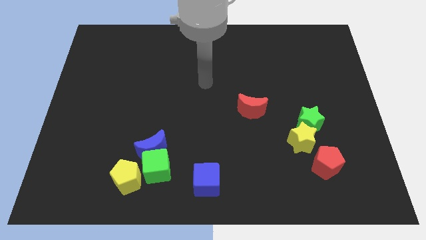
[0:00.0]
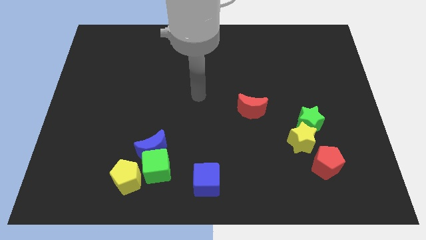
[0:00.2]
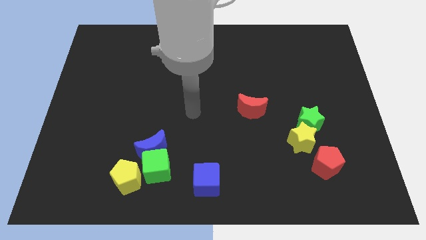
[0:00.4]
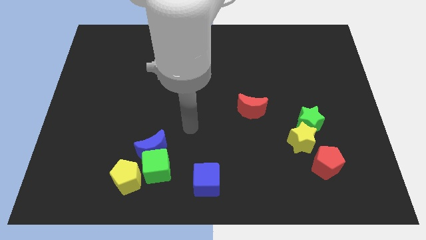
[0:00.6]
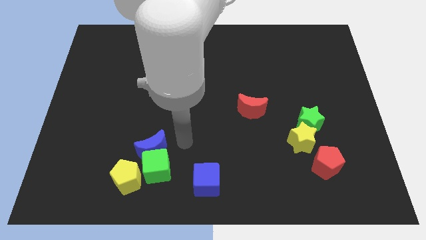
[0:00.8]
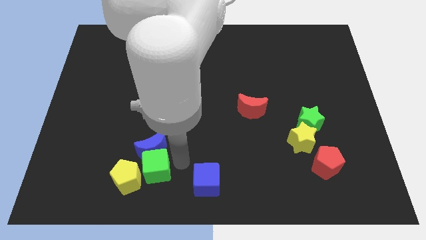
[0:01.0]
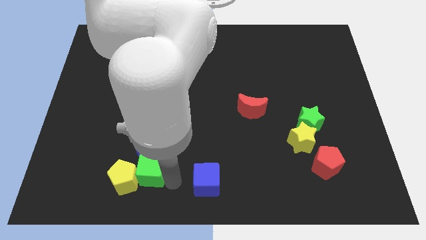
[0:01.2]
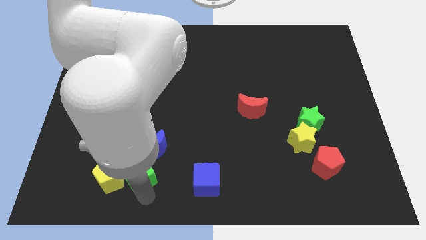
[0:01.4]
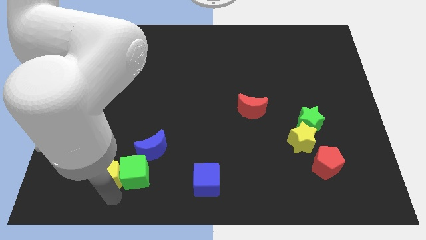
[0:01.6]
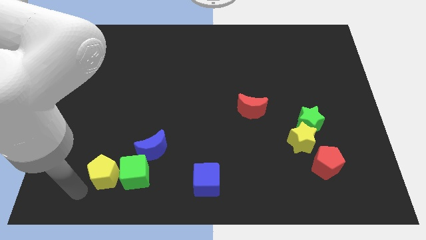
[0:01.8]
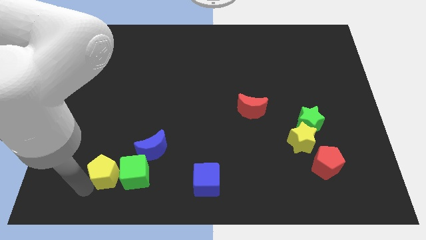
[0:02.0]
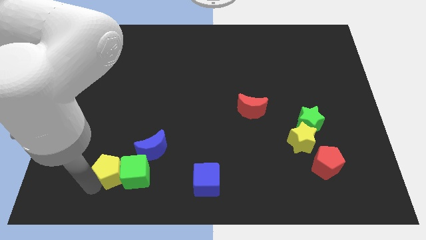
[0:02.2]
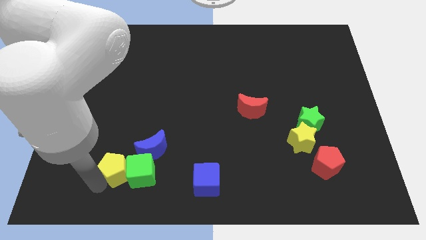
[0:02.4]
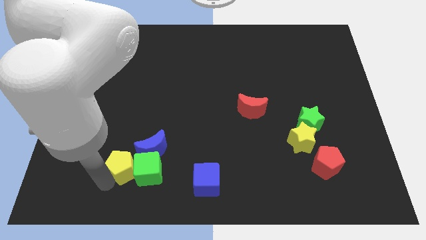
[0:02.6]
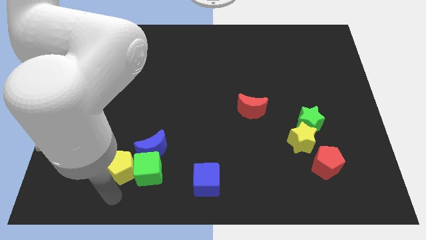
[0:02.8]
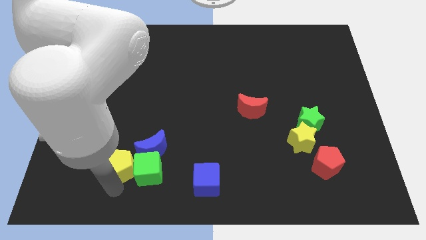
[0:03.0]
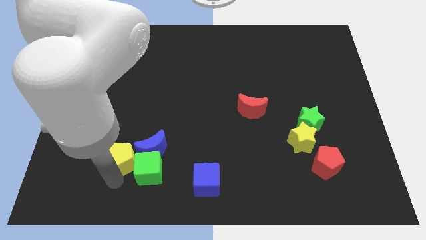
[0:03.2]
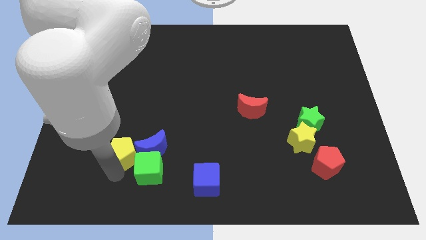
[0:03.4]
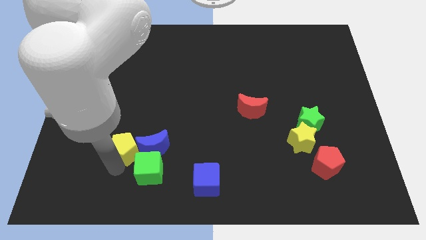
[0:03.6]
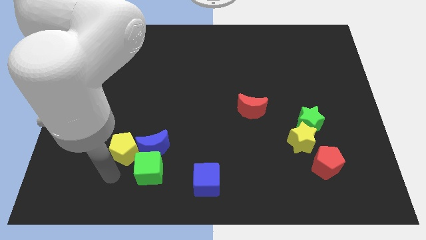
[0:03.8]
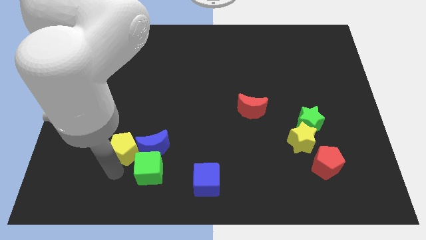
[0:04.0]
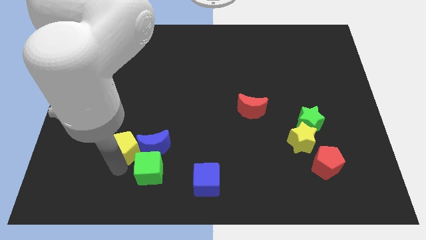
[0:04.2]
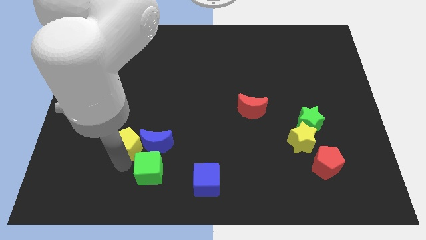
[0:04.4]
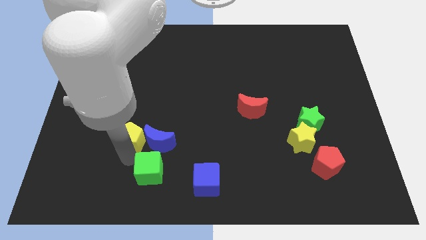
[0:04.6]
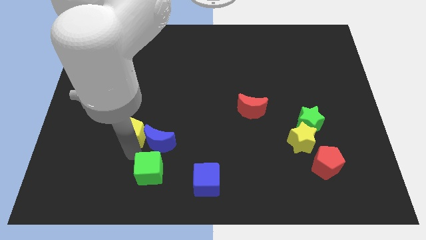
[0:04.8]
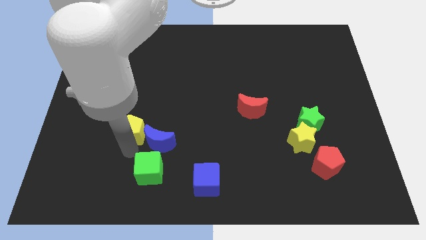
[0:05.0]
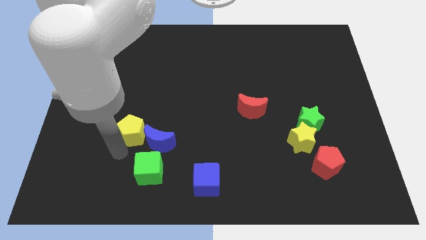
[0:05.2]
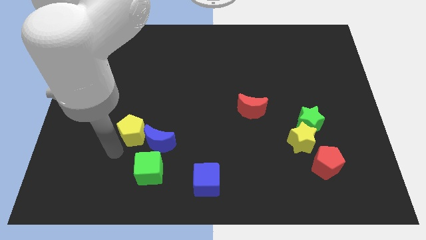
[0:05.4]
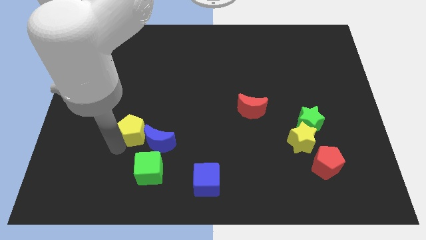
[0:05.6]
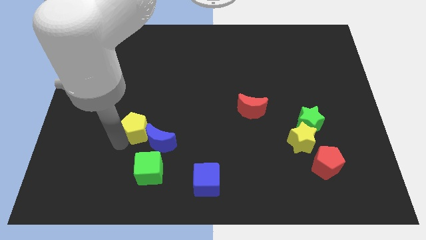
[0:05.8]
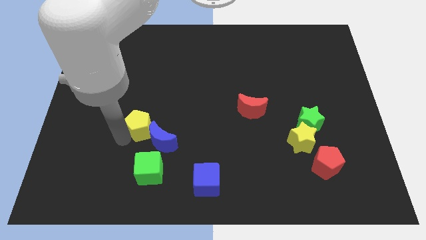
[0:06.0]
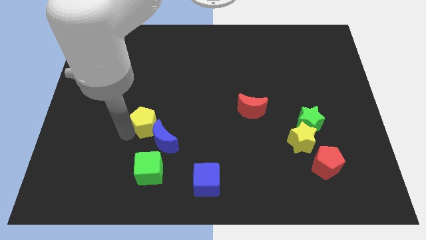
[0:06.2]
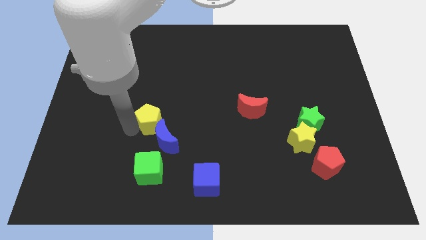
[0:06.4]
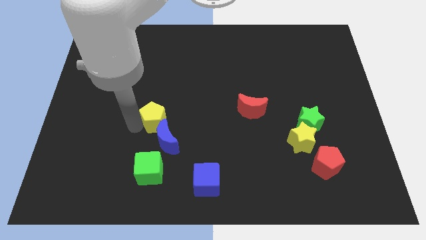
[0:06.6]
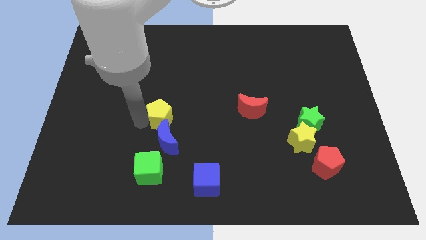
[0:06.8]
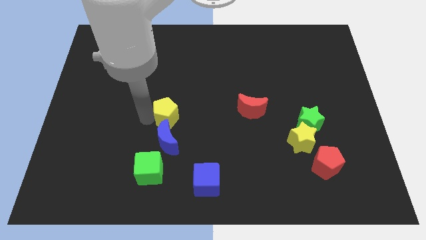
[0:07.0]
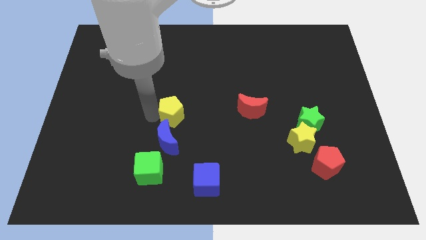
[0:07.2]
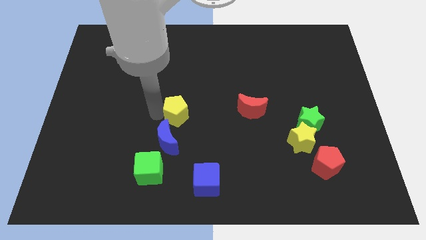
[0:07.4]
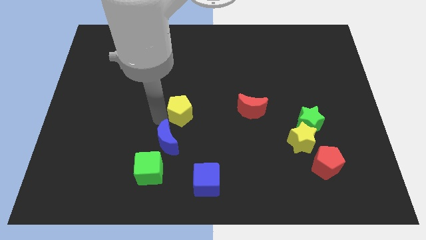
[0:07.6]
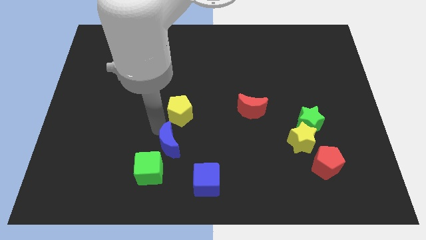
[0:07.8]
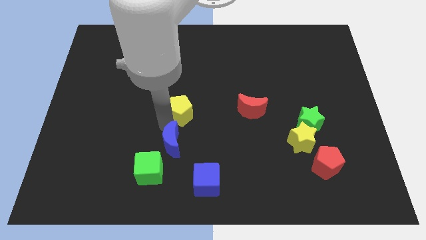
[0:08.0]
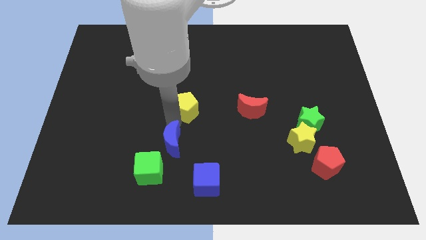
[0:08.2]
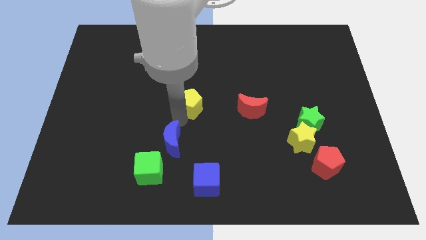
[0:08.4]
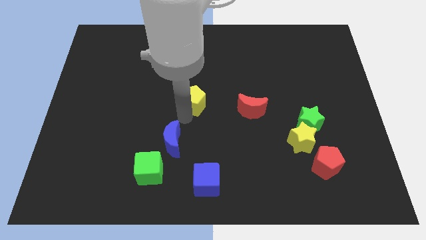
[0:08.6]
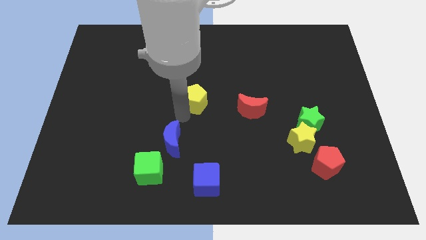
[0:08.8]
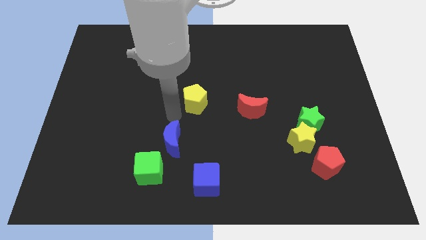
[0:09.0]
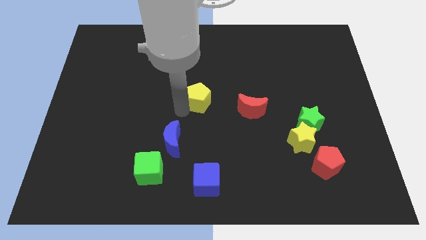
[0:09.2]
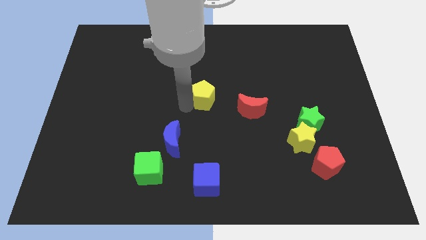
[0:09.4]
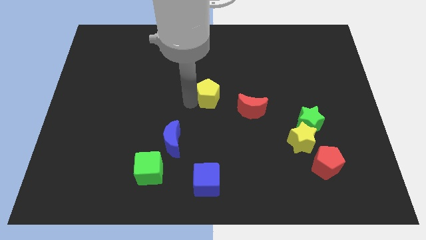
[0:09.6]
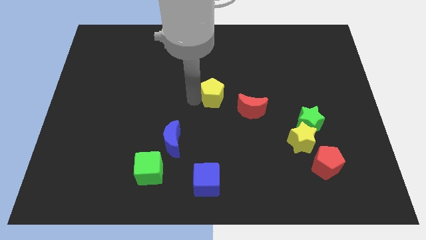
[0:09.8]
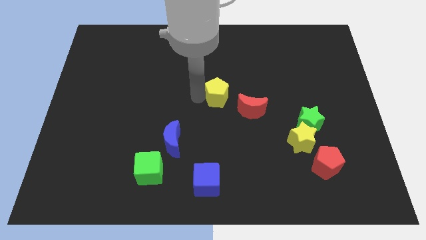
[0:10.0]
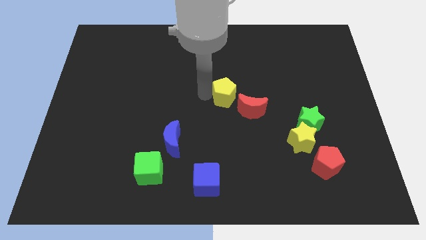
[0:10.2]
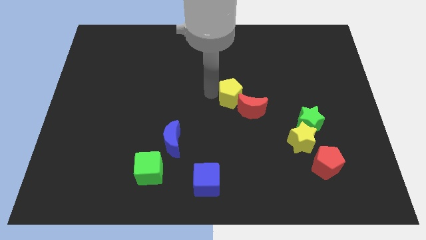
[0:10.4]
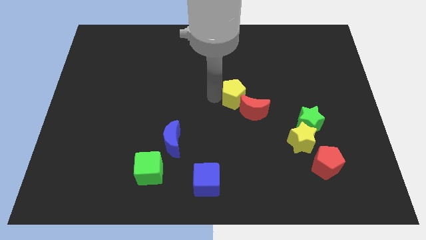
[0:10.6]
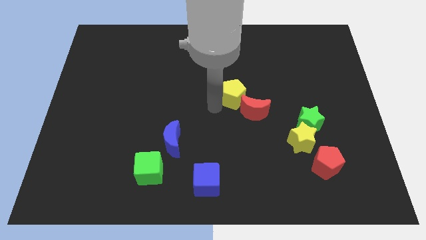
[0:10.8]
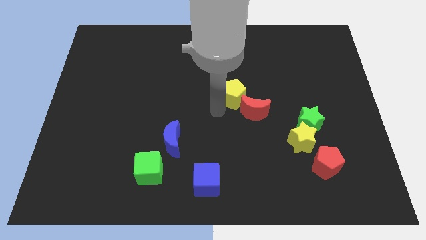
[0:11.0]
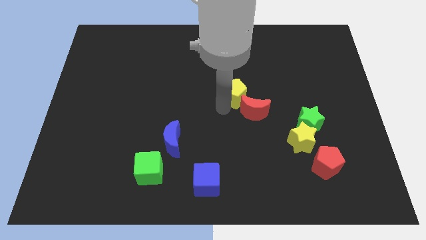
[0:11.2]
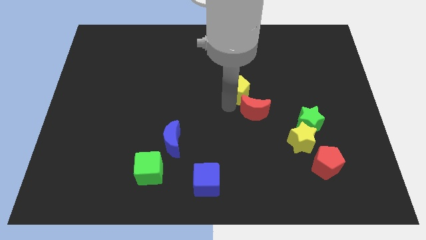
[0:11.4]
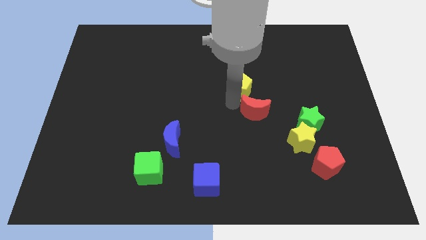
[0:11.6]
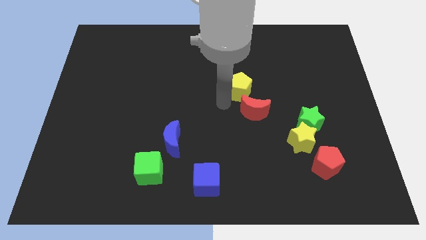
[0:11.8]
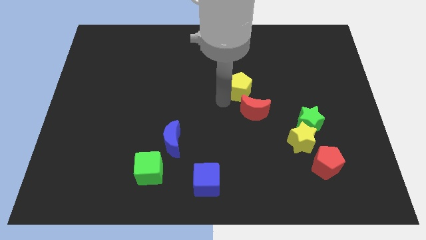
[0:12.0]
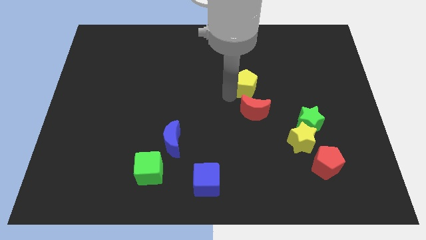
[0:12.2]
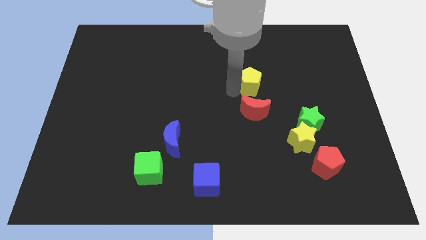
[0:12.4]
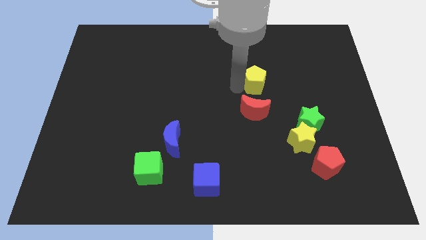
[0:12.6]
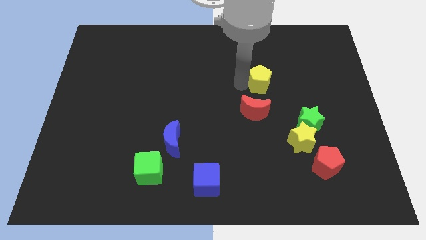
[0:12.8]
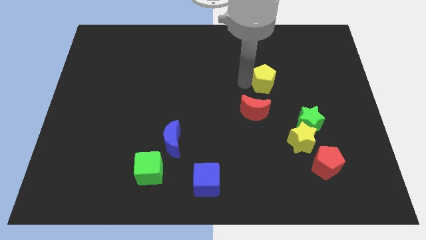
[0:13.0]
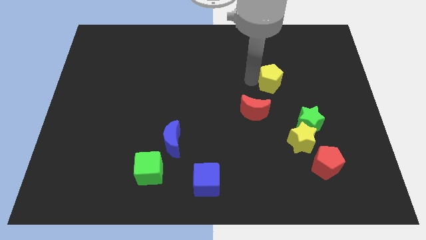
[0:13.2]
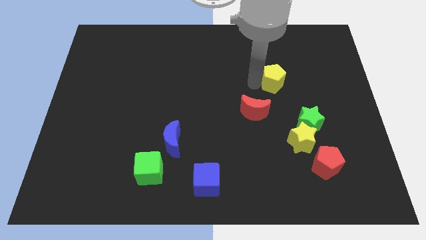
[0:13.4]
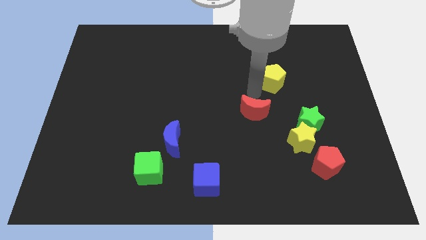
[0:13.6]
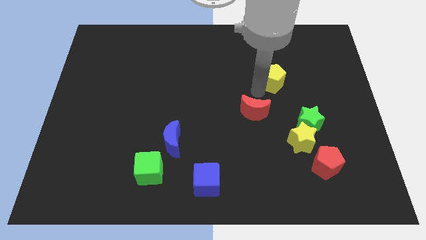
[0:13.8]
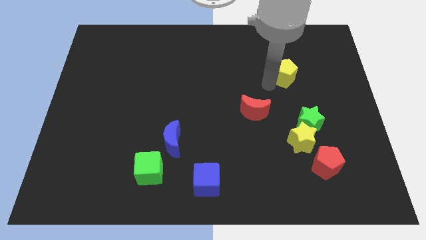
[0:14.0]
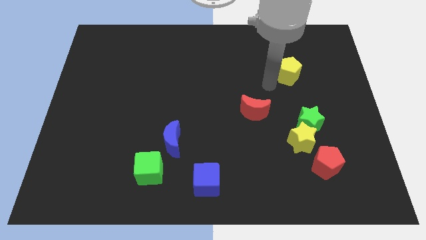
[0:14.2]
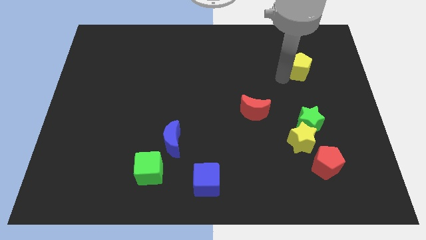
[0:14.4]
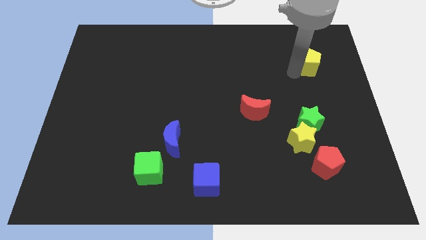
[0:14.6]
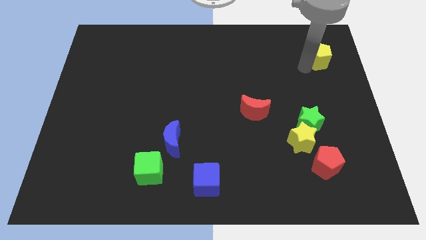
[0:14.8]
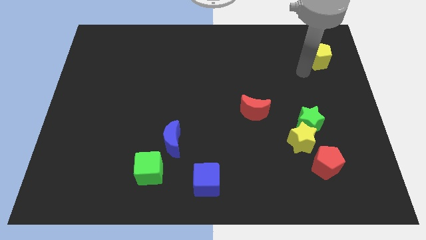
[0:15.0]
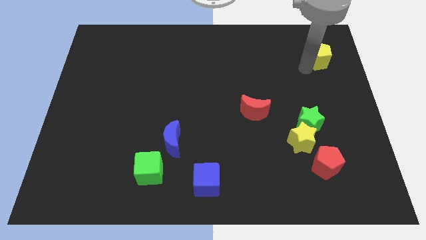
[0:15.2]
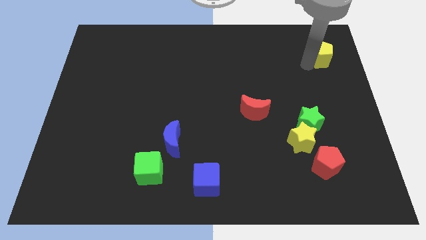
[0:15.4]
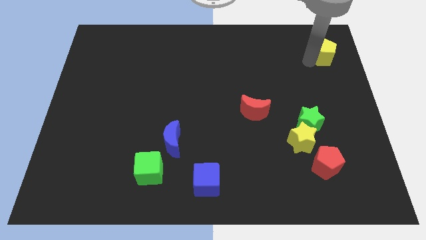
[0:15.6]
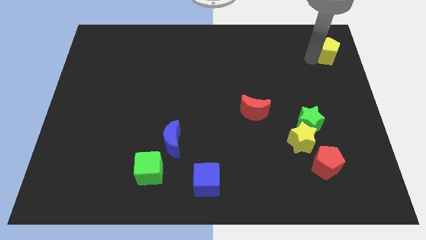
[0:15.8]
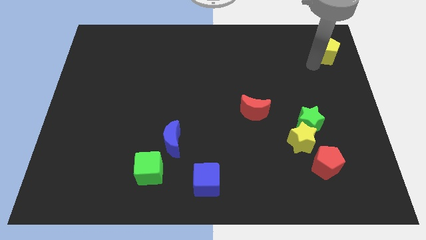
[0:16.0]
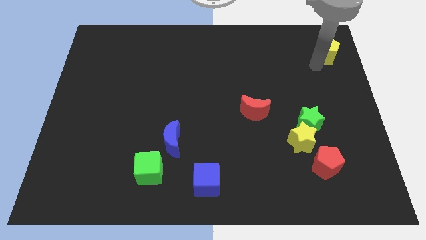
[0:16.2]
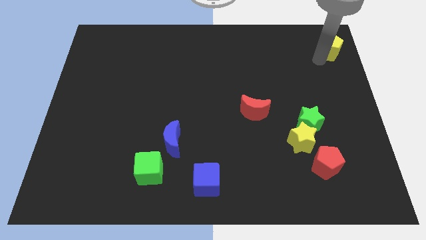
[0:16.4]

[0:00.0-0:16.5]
slide the yellow pentagon to the upper right corner
